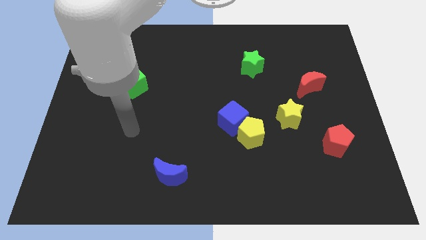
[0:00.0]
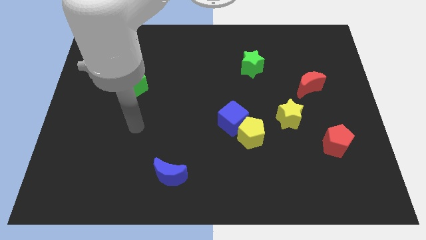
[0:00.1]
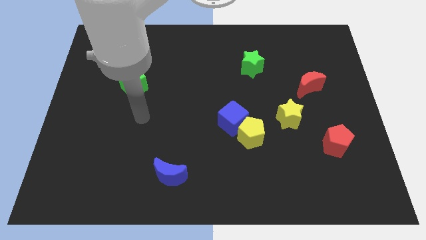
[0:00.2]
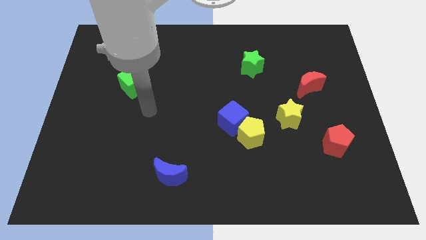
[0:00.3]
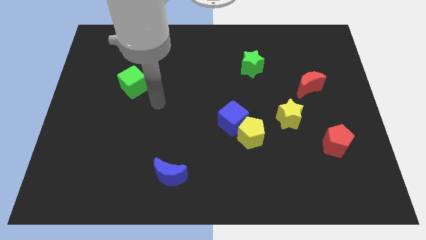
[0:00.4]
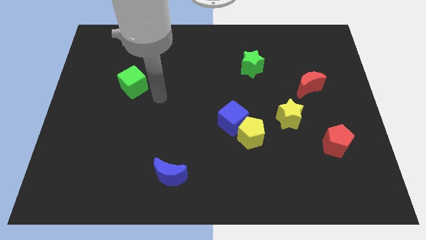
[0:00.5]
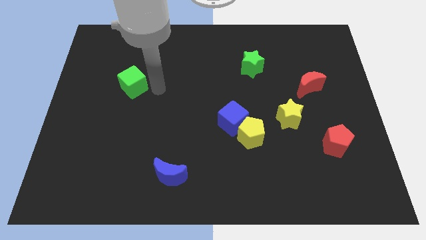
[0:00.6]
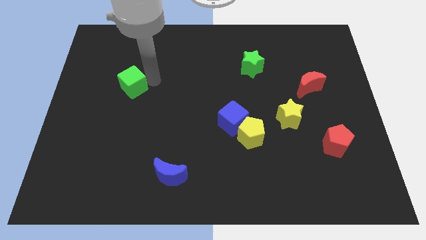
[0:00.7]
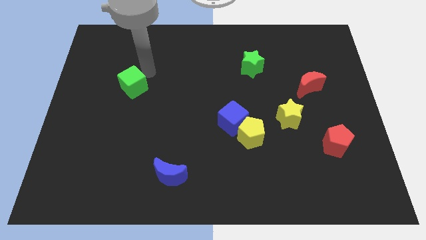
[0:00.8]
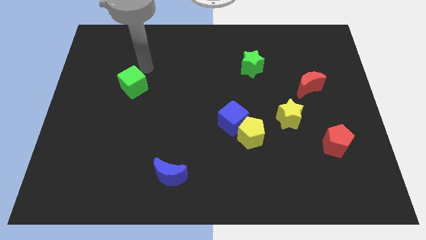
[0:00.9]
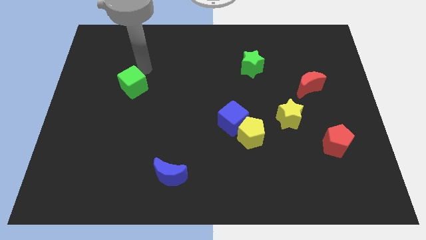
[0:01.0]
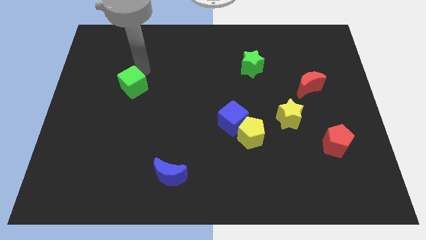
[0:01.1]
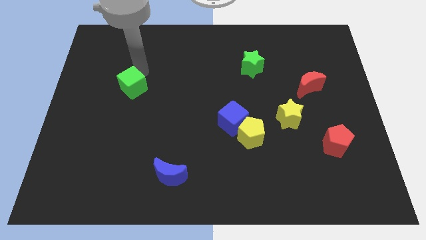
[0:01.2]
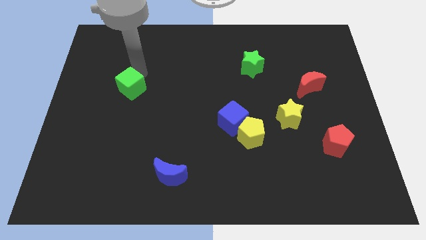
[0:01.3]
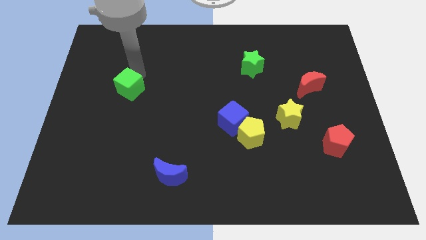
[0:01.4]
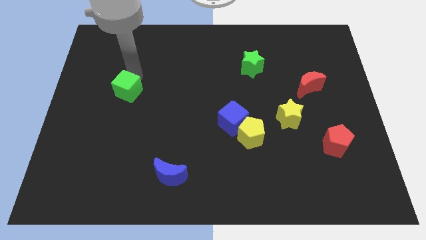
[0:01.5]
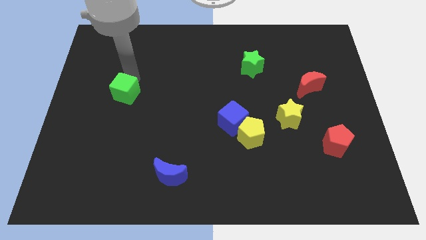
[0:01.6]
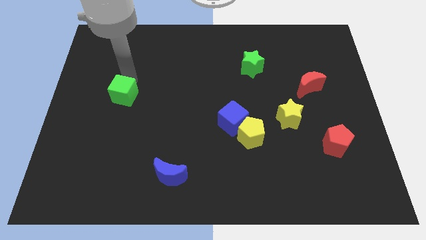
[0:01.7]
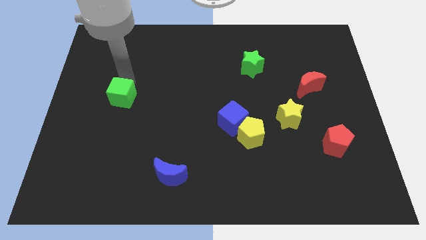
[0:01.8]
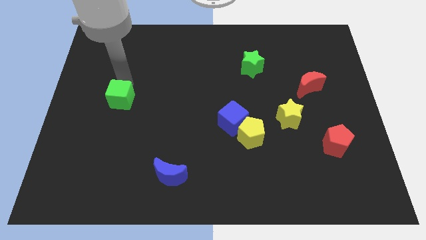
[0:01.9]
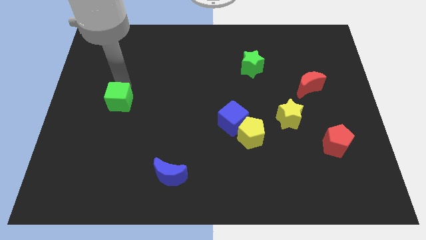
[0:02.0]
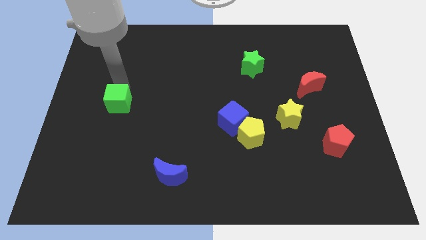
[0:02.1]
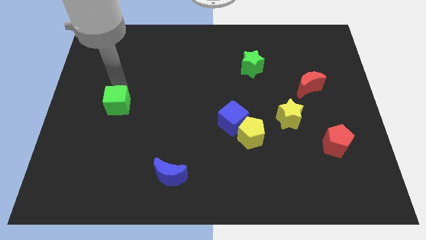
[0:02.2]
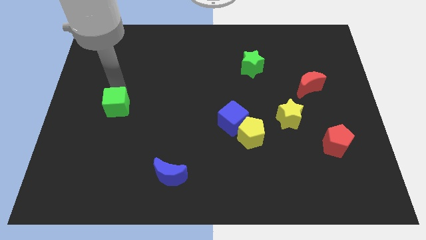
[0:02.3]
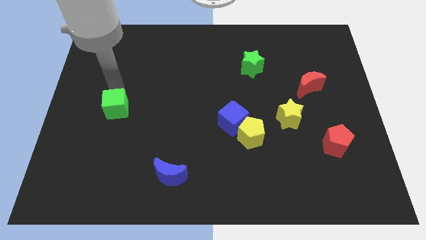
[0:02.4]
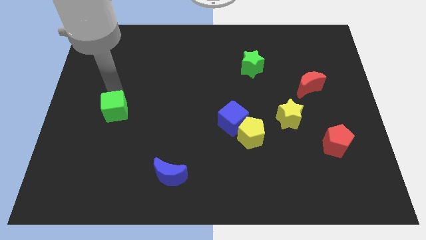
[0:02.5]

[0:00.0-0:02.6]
slightly slide the green cube down

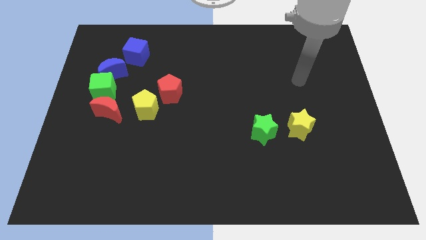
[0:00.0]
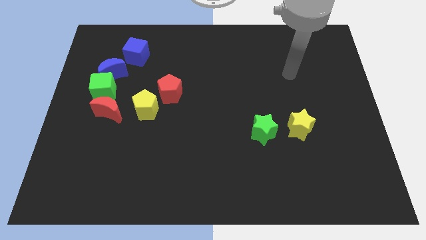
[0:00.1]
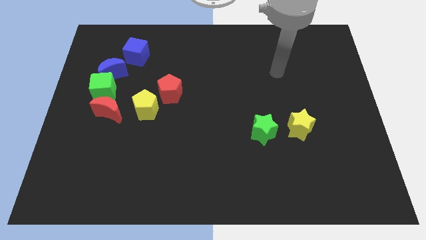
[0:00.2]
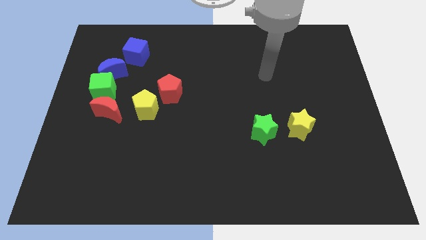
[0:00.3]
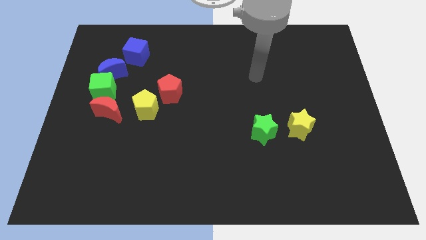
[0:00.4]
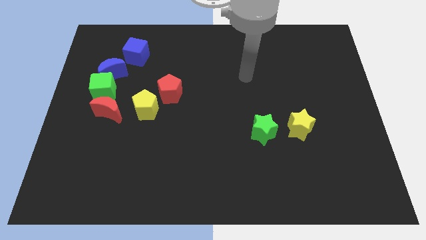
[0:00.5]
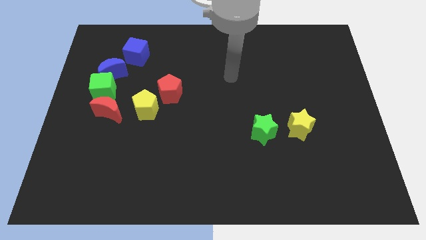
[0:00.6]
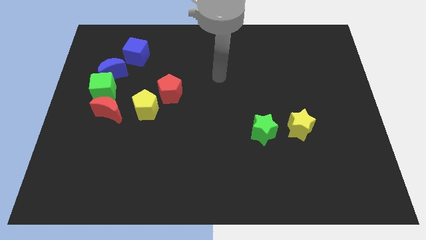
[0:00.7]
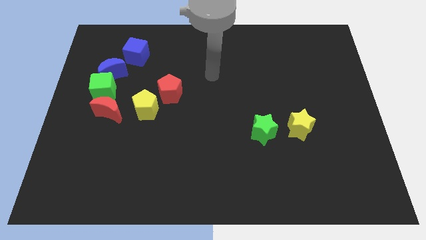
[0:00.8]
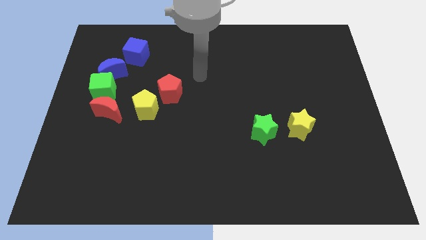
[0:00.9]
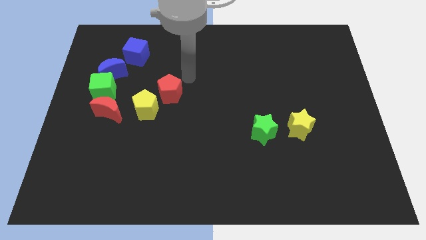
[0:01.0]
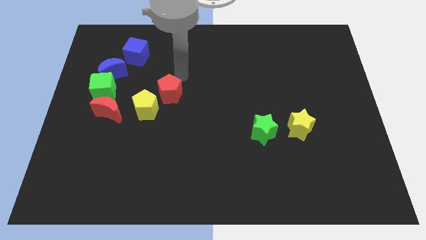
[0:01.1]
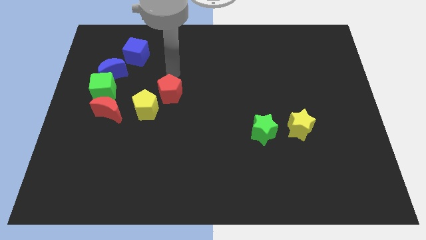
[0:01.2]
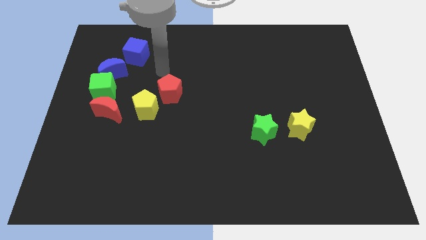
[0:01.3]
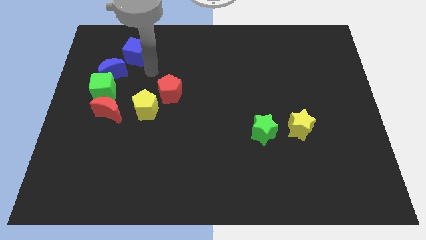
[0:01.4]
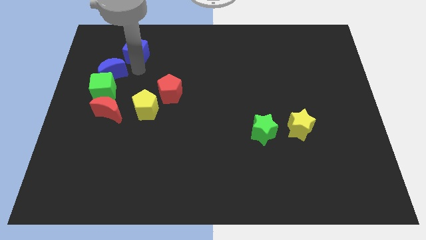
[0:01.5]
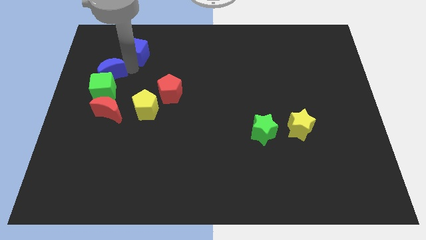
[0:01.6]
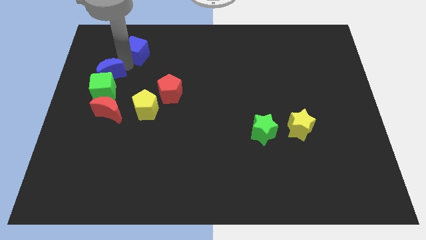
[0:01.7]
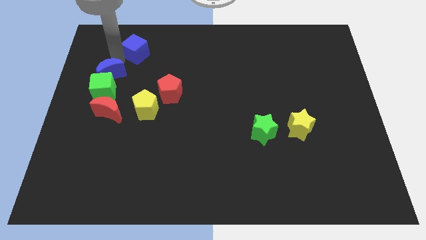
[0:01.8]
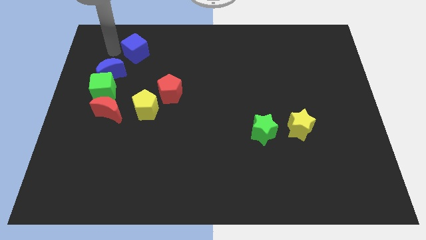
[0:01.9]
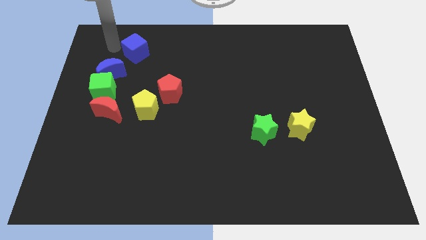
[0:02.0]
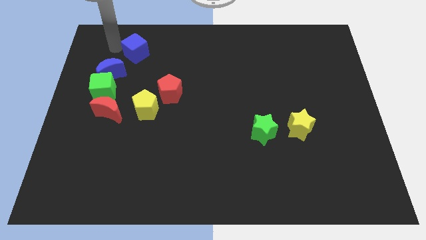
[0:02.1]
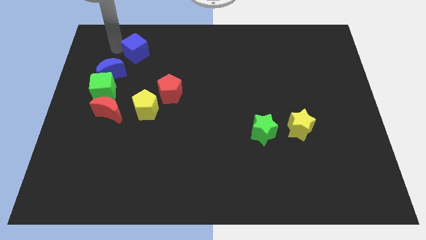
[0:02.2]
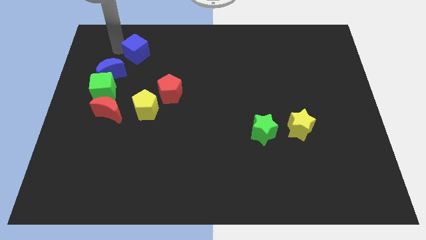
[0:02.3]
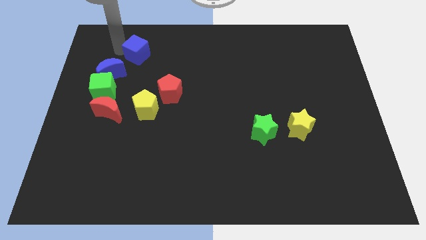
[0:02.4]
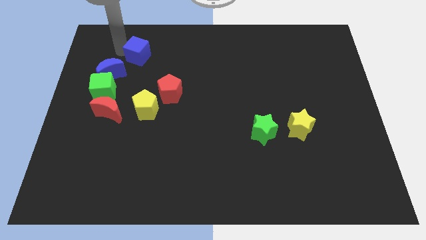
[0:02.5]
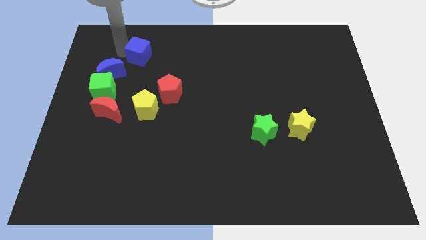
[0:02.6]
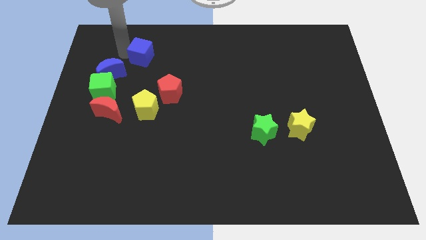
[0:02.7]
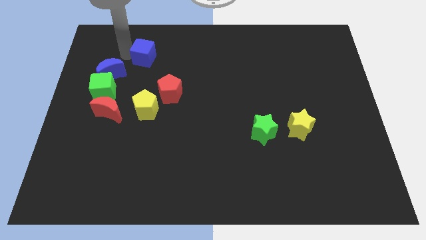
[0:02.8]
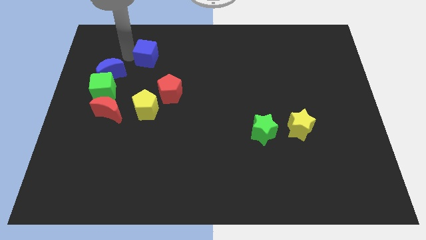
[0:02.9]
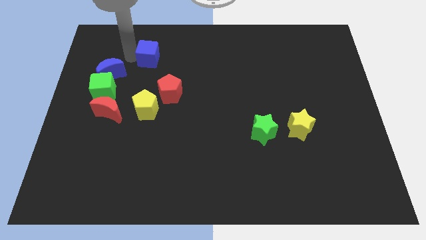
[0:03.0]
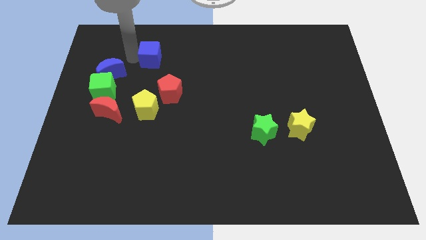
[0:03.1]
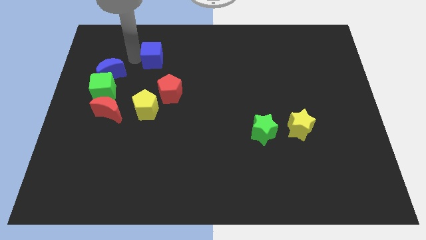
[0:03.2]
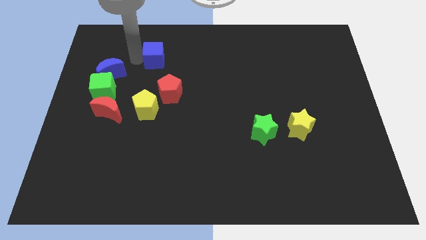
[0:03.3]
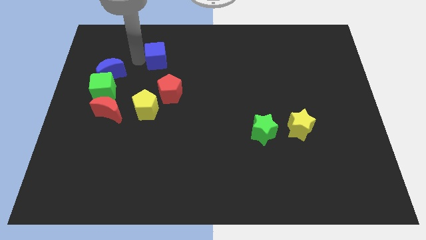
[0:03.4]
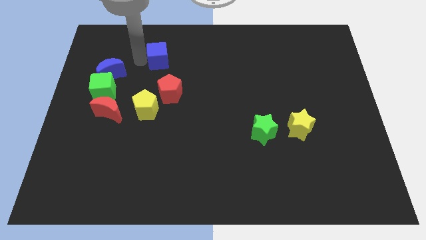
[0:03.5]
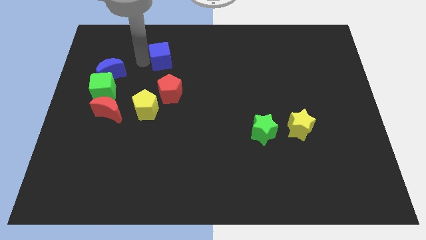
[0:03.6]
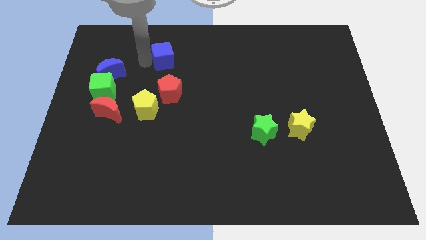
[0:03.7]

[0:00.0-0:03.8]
push the blue cube a bit to the right

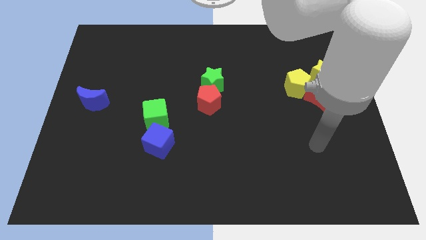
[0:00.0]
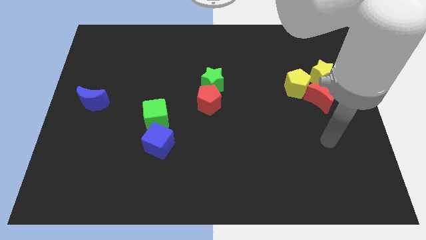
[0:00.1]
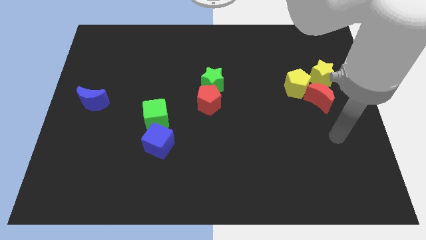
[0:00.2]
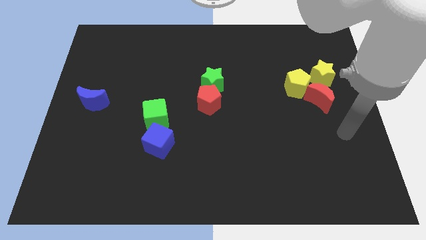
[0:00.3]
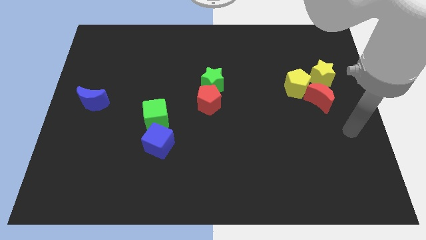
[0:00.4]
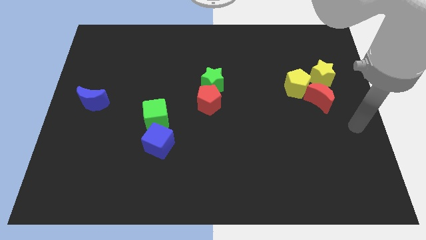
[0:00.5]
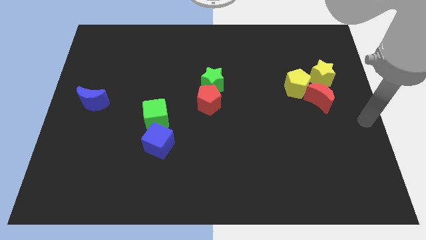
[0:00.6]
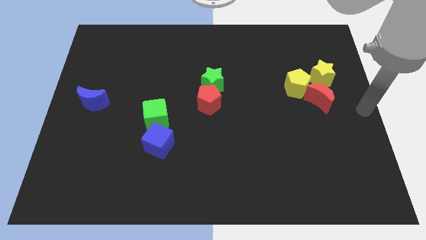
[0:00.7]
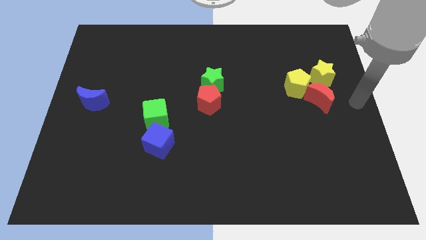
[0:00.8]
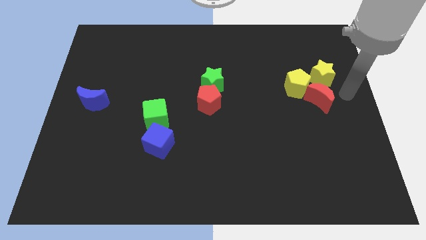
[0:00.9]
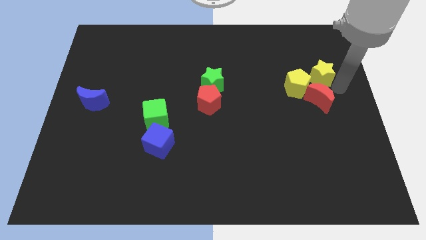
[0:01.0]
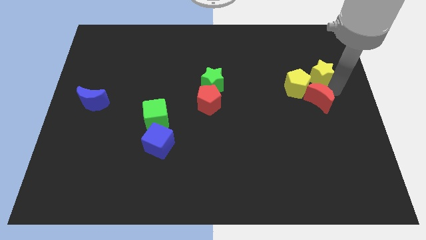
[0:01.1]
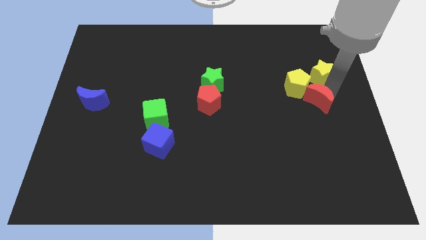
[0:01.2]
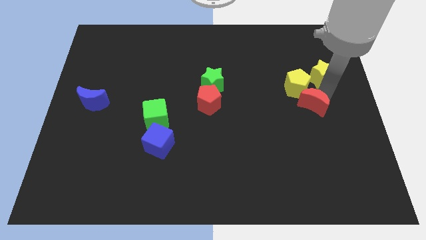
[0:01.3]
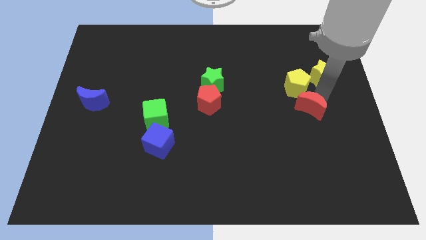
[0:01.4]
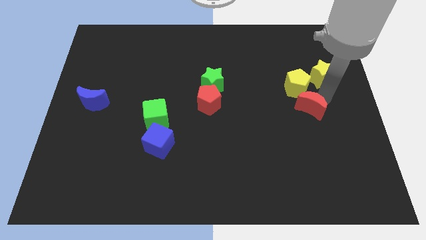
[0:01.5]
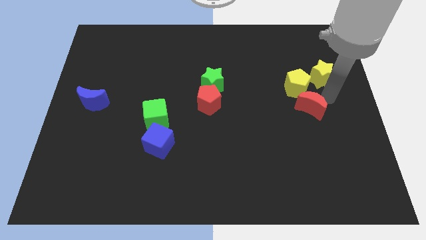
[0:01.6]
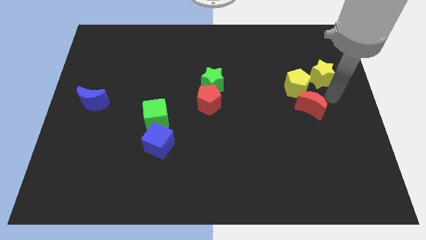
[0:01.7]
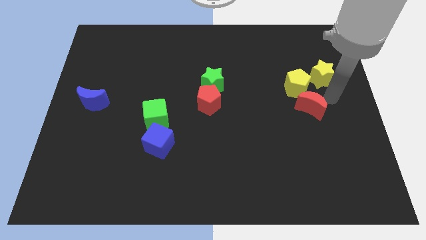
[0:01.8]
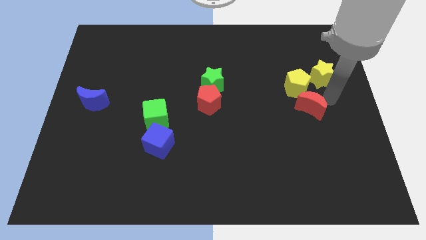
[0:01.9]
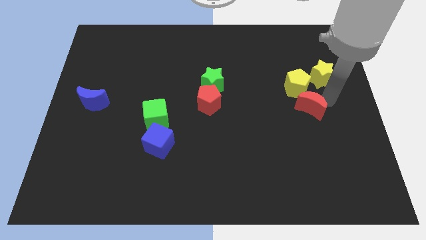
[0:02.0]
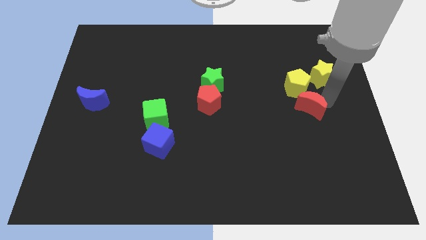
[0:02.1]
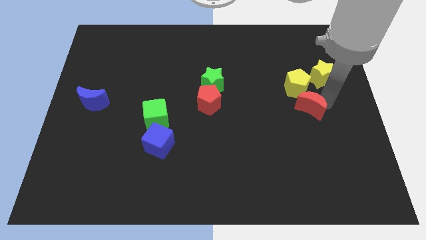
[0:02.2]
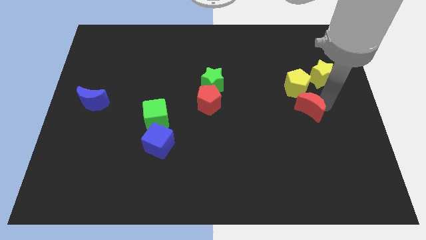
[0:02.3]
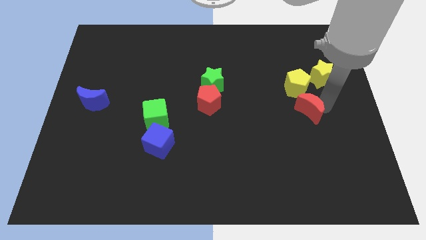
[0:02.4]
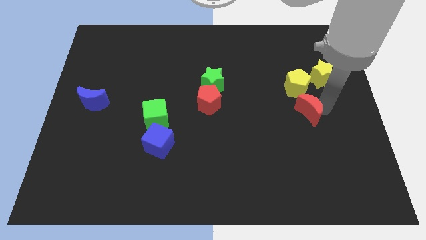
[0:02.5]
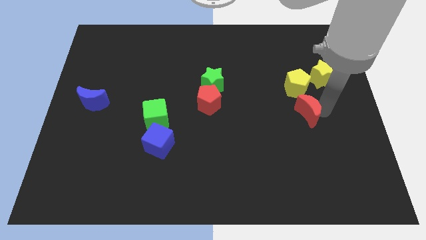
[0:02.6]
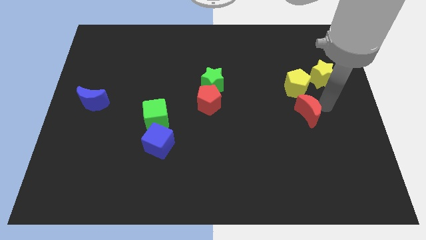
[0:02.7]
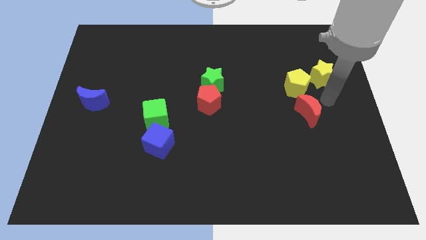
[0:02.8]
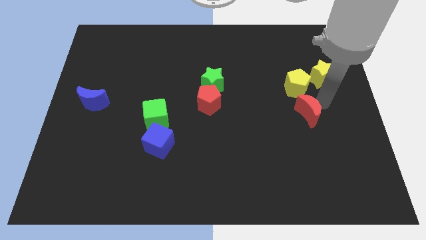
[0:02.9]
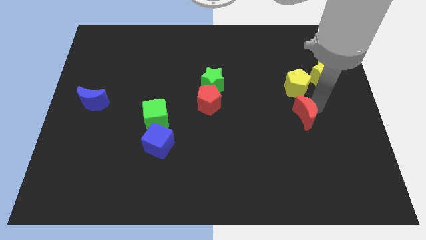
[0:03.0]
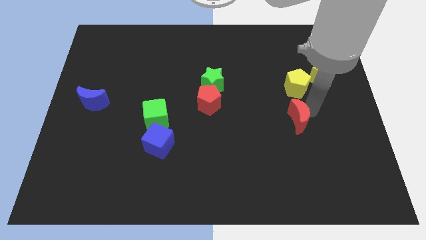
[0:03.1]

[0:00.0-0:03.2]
move the red moon slightly diagonally downwards and left
